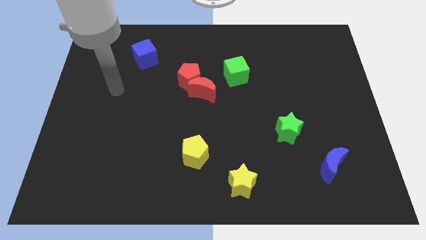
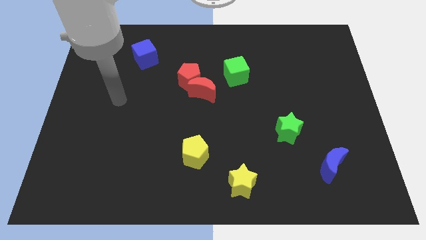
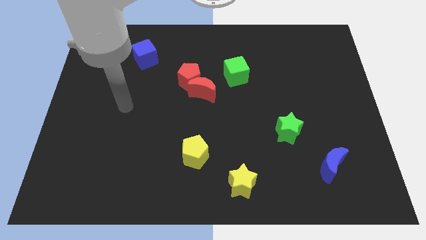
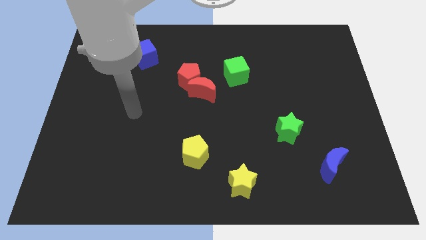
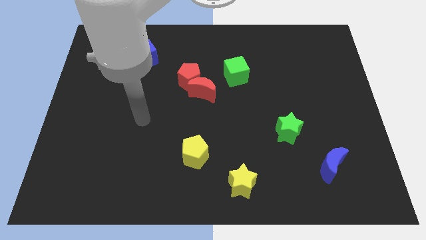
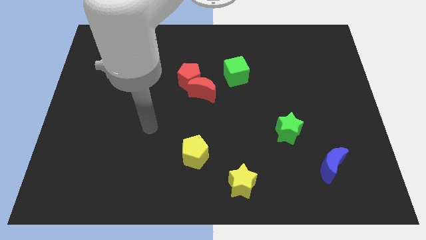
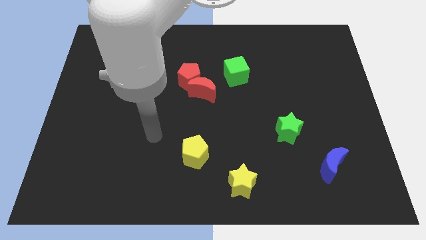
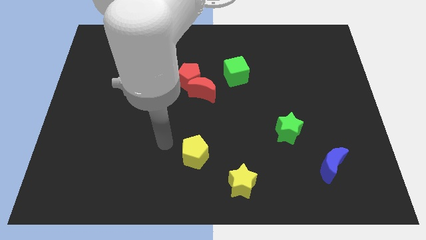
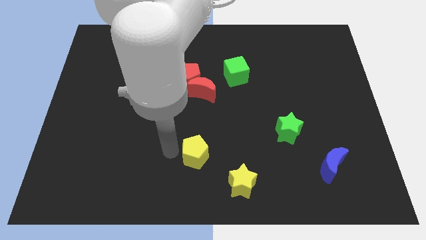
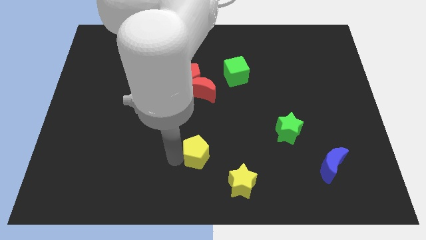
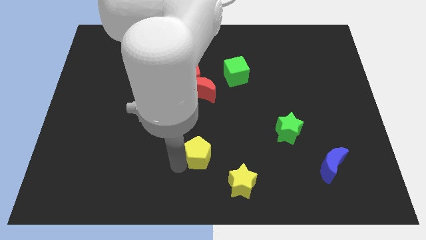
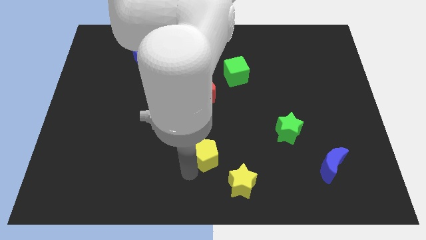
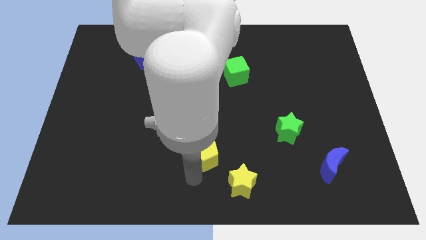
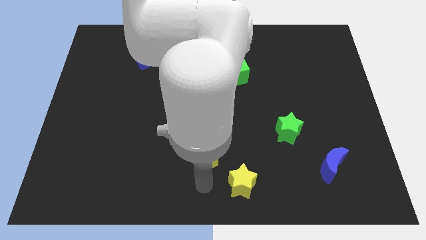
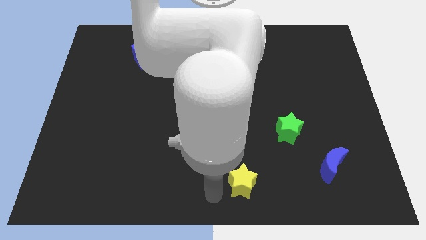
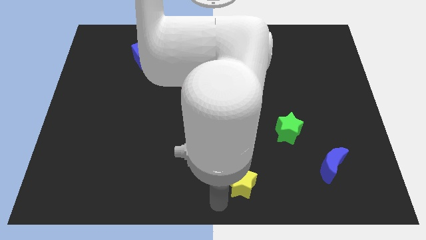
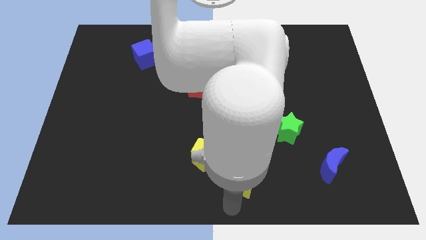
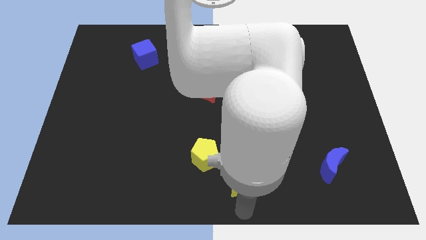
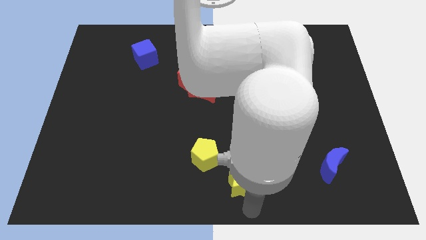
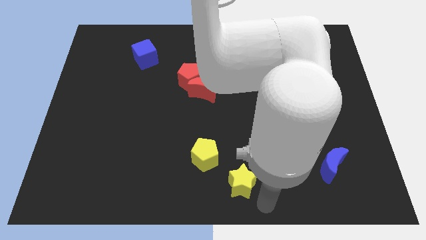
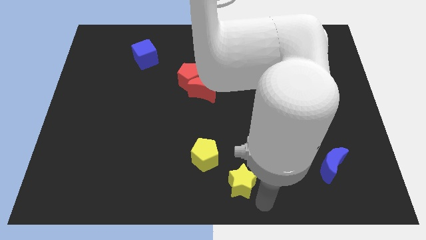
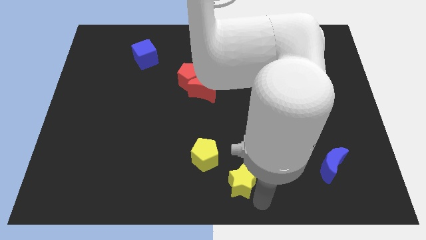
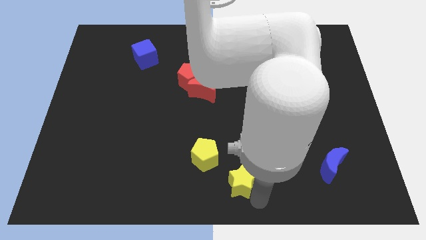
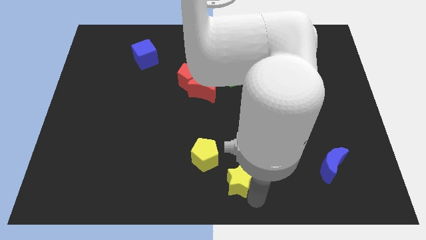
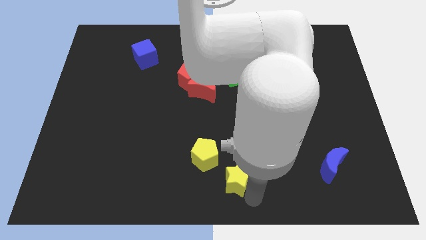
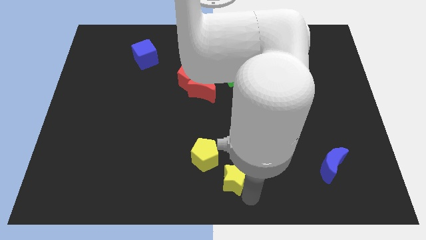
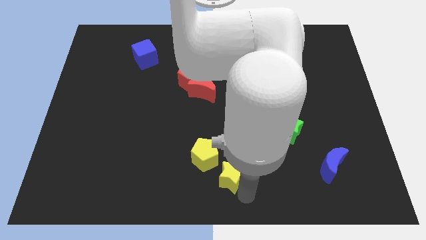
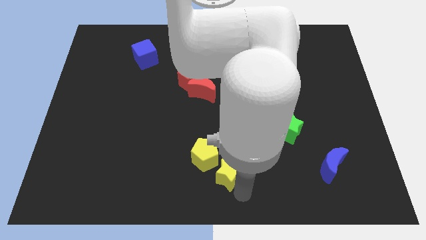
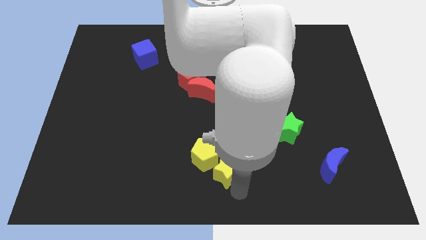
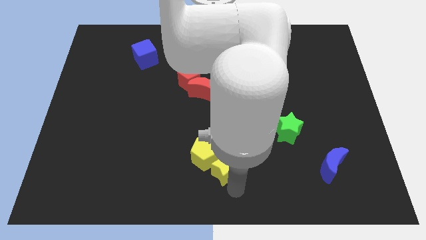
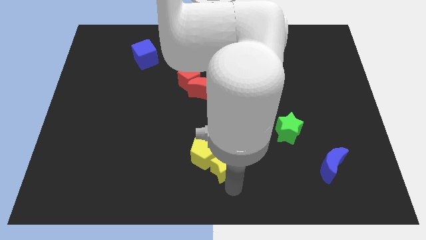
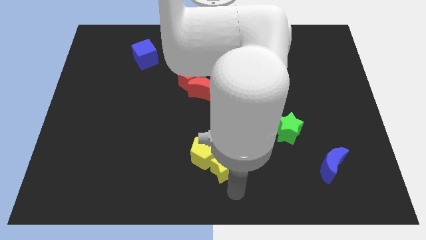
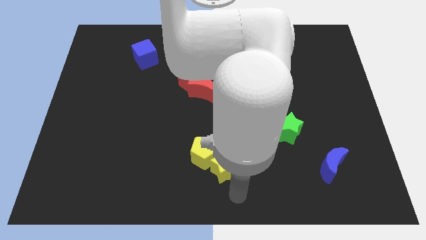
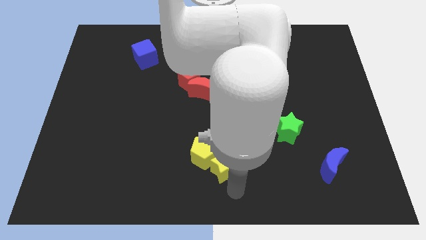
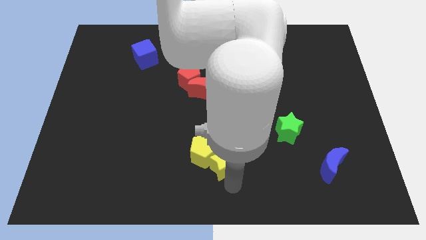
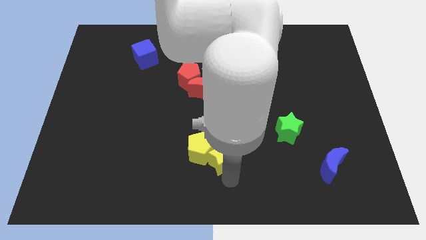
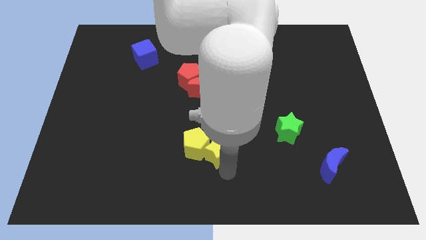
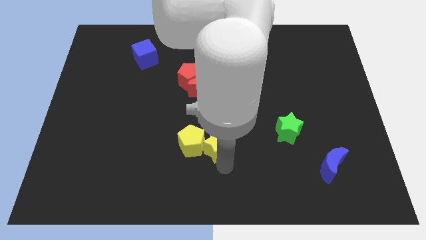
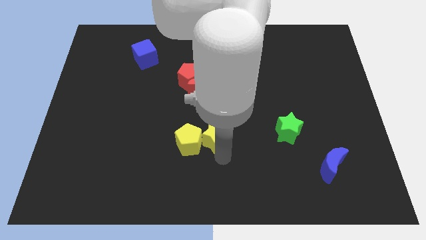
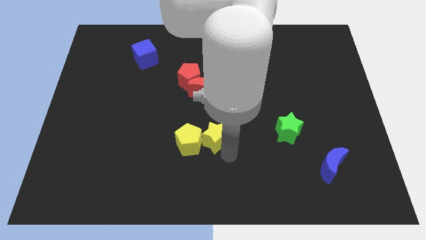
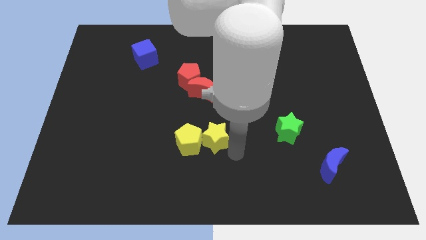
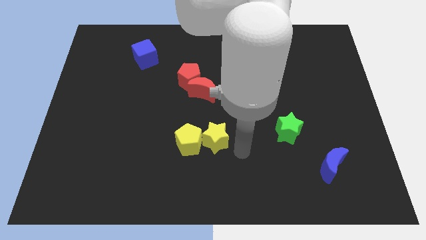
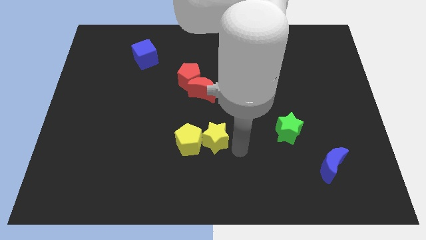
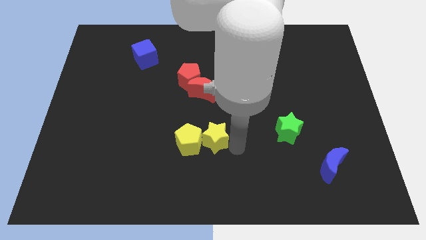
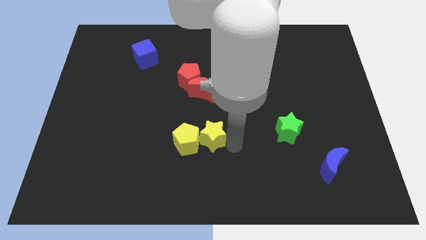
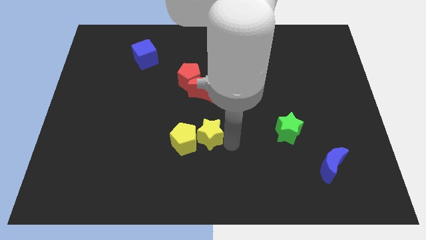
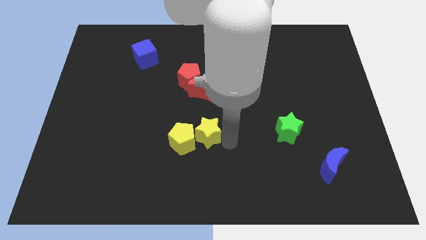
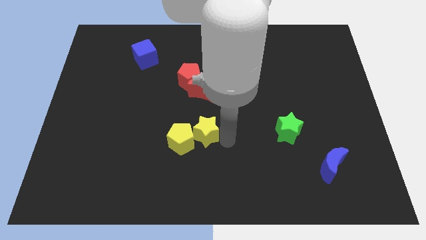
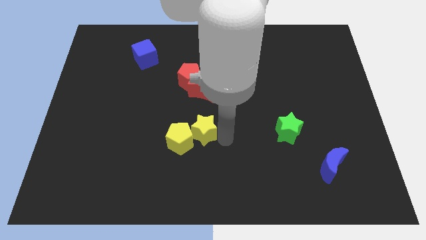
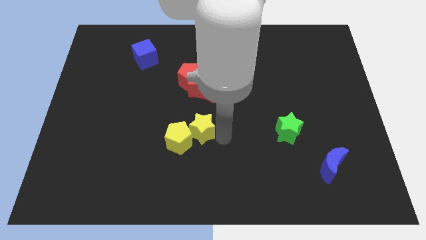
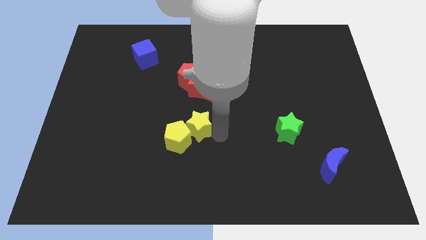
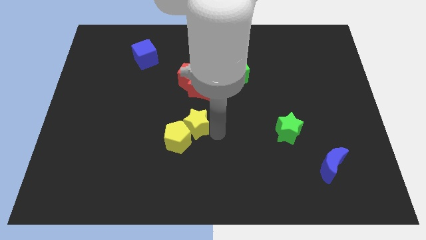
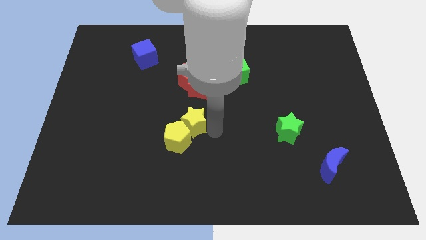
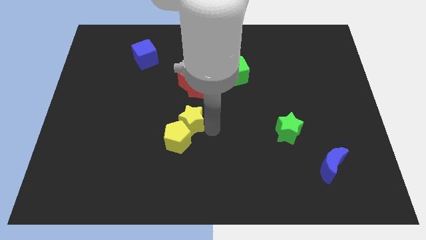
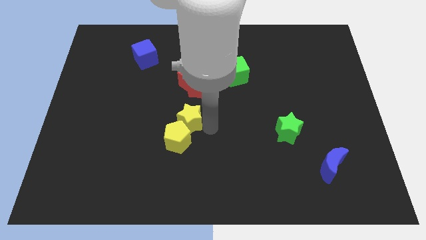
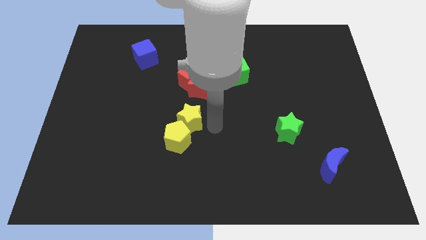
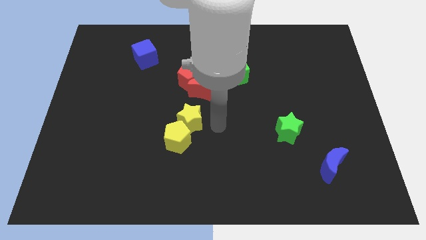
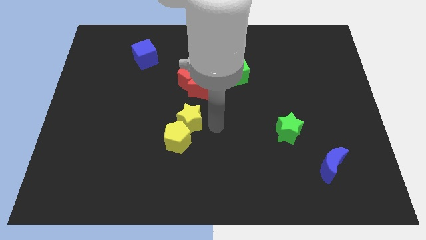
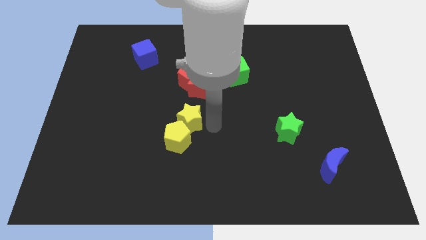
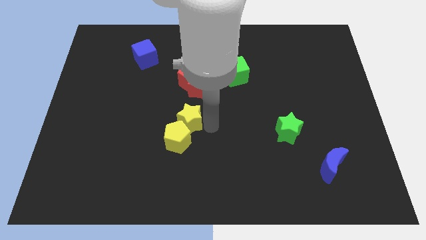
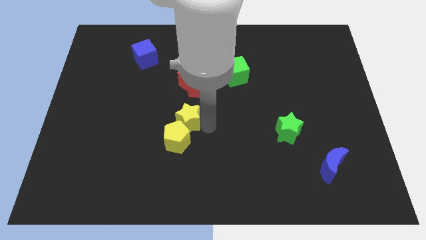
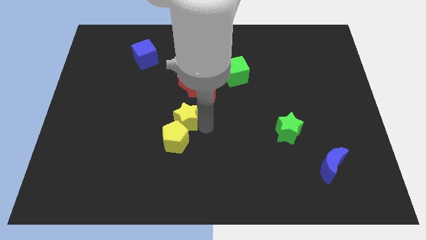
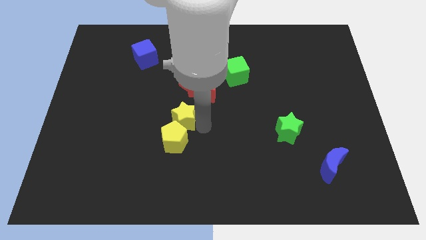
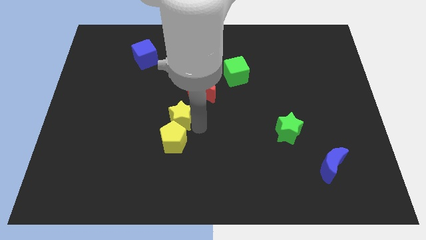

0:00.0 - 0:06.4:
slide the yellow star upwards and left

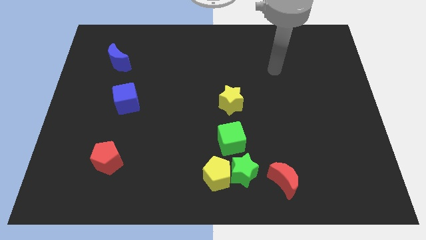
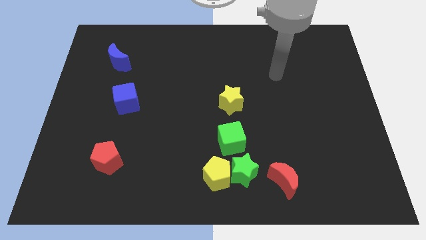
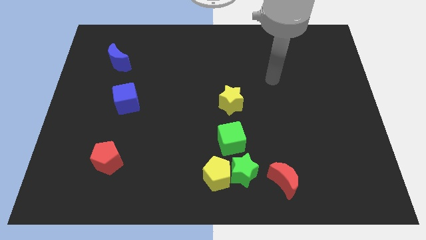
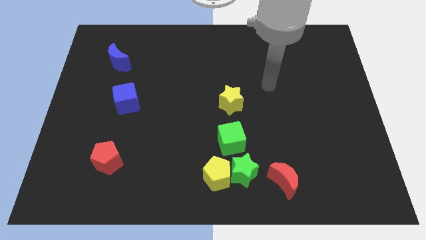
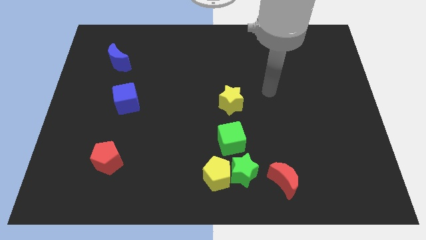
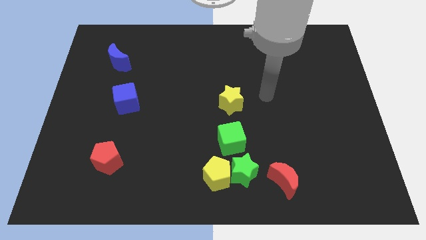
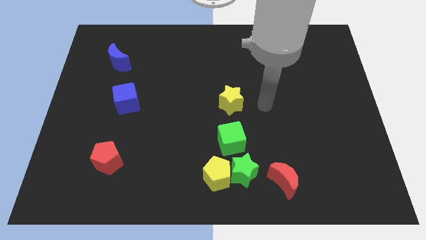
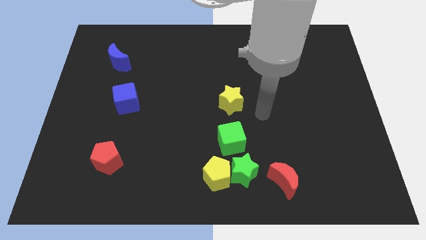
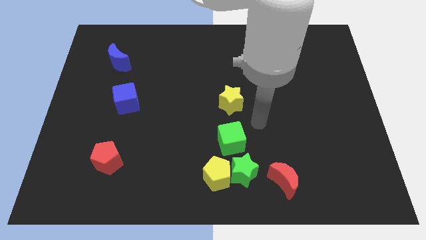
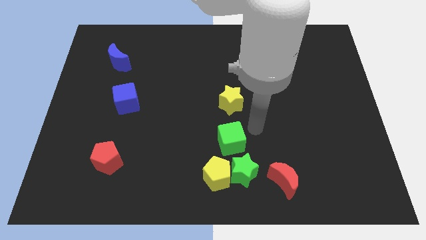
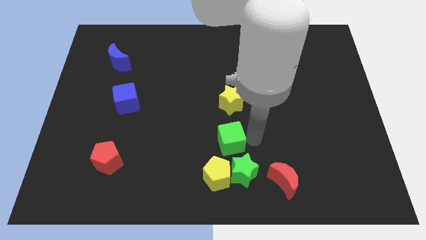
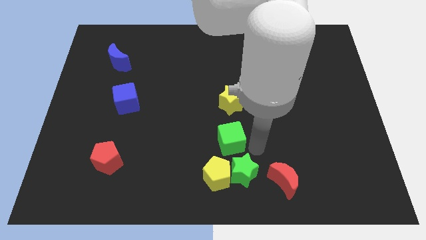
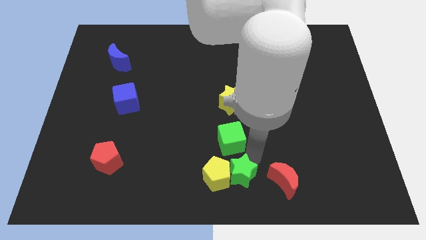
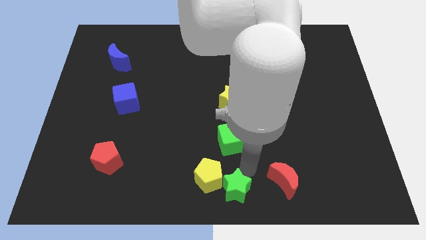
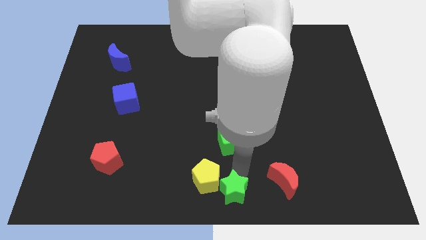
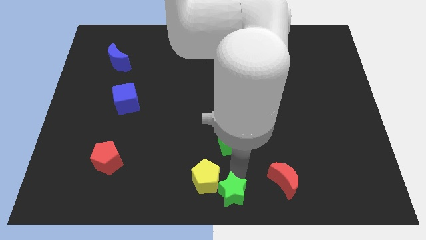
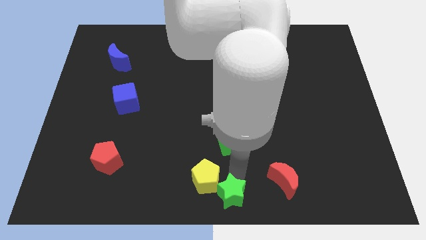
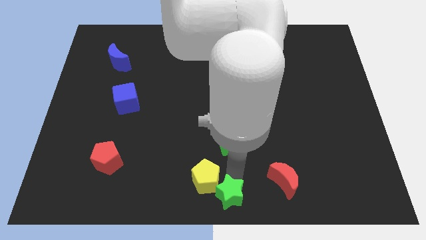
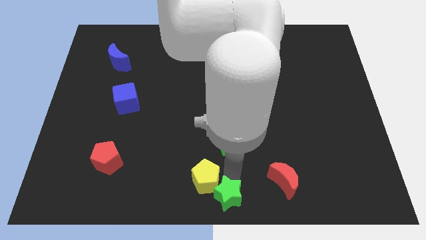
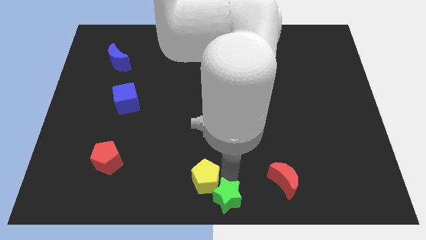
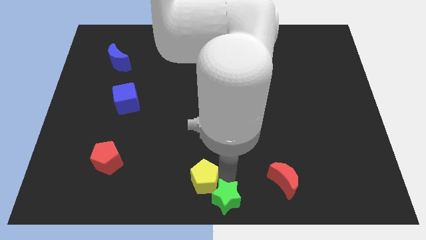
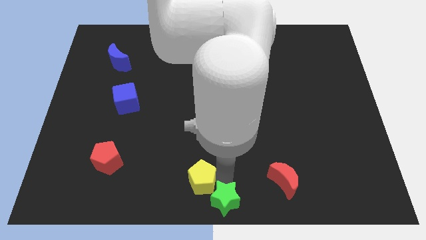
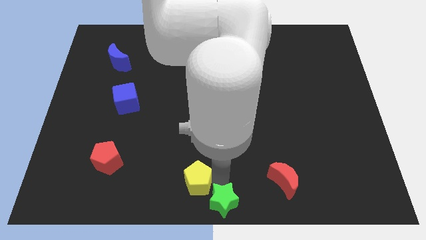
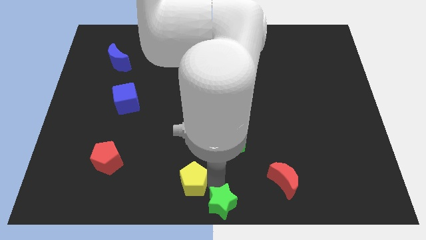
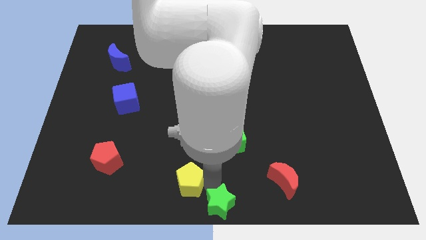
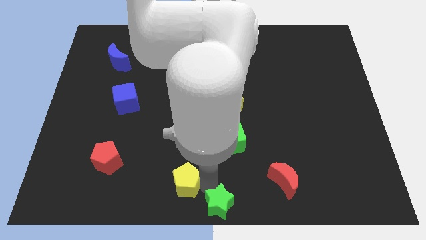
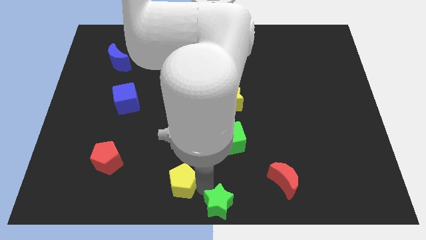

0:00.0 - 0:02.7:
move the yellow pentagon a little to the left
